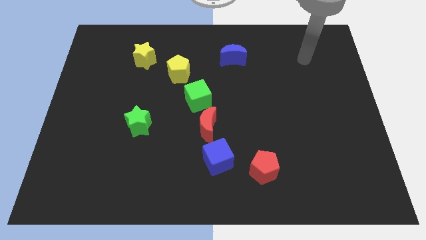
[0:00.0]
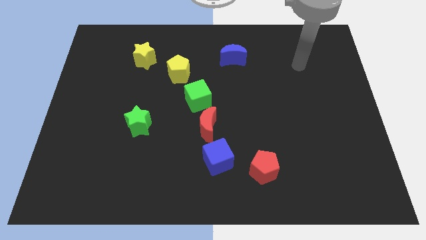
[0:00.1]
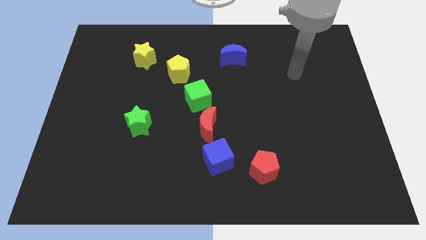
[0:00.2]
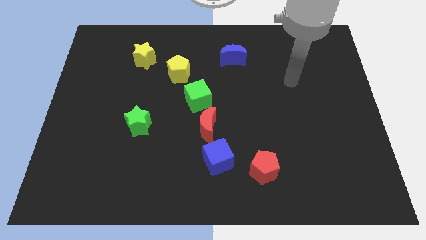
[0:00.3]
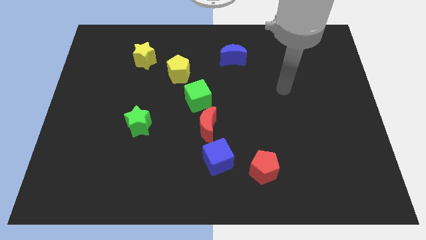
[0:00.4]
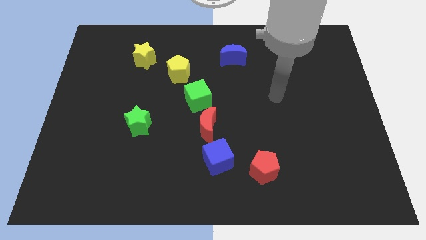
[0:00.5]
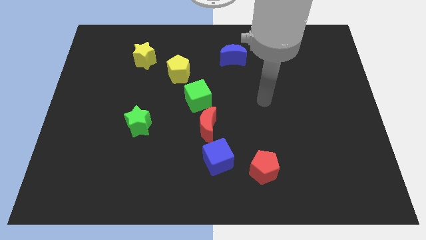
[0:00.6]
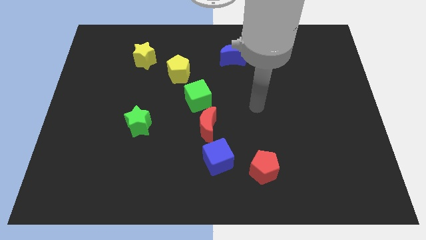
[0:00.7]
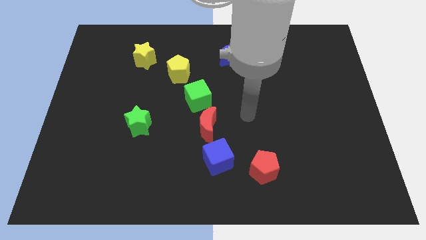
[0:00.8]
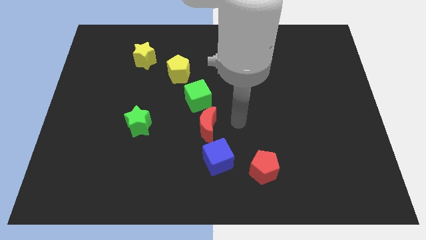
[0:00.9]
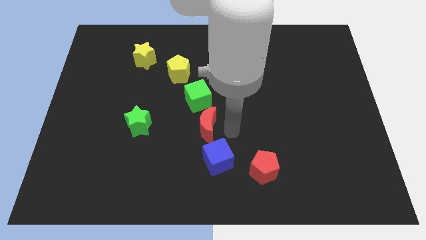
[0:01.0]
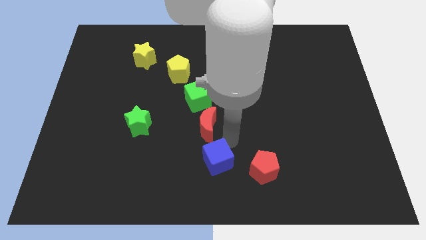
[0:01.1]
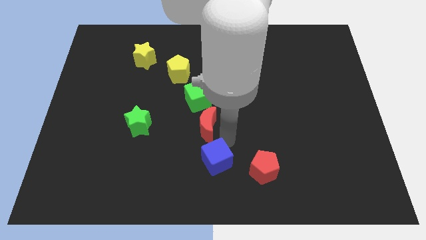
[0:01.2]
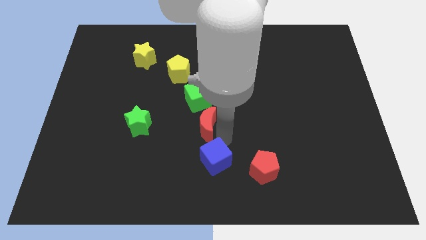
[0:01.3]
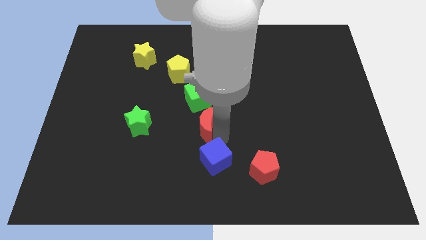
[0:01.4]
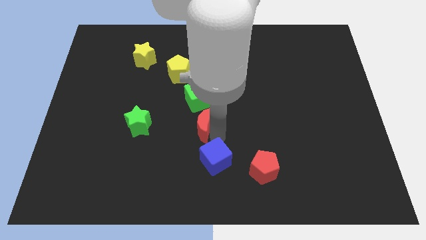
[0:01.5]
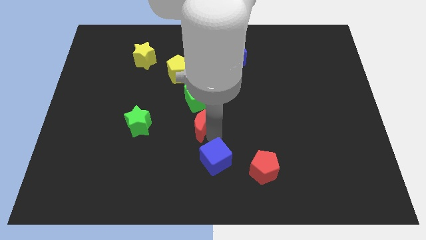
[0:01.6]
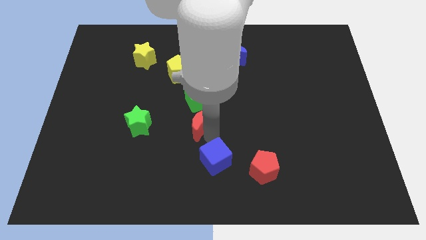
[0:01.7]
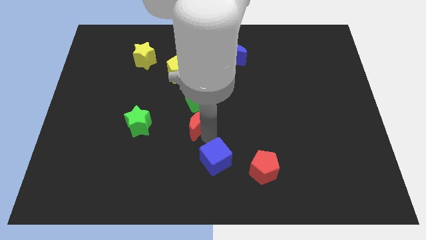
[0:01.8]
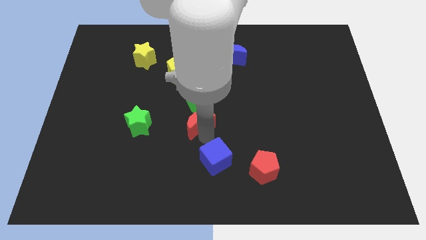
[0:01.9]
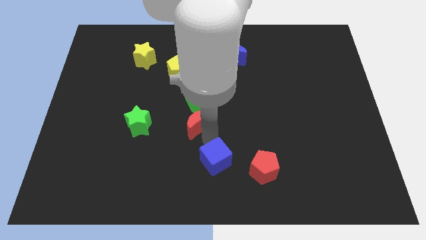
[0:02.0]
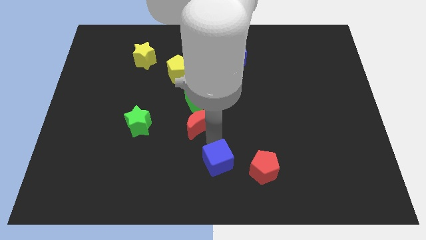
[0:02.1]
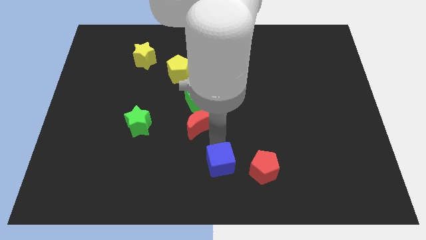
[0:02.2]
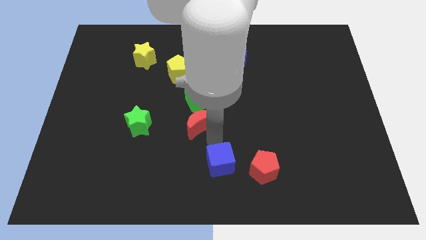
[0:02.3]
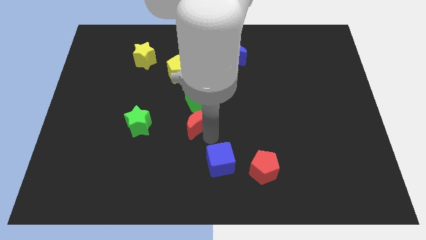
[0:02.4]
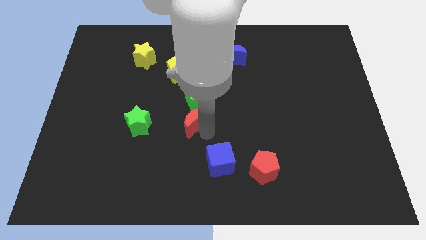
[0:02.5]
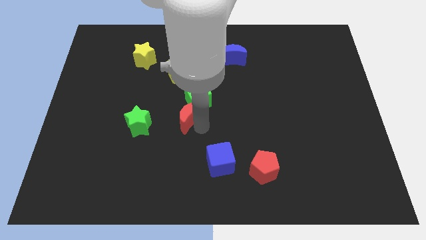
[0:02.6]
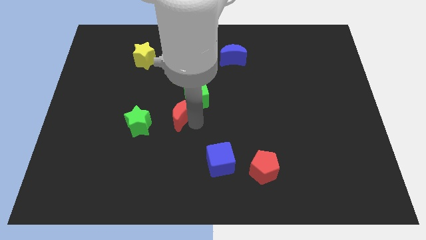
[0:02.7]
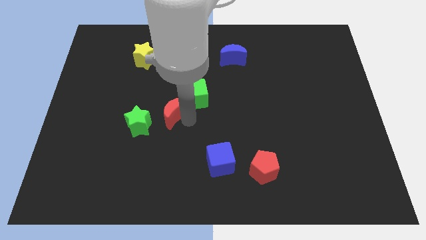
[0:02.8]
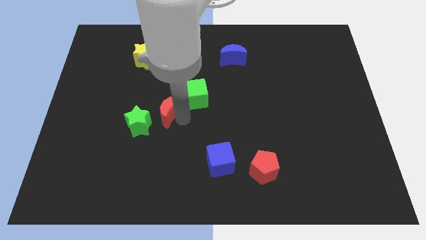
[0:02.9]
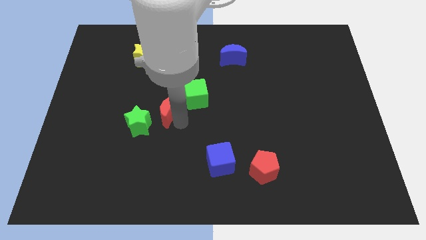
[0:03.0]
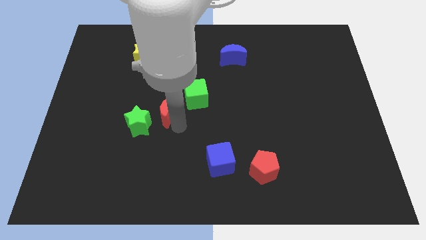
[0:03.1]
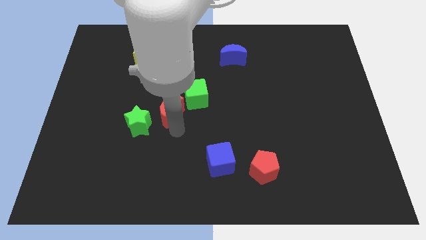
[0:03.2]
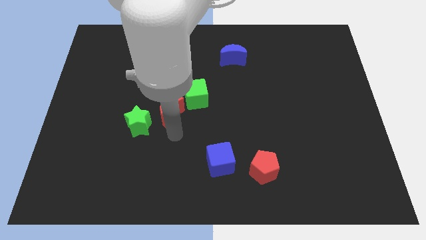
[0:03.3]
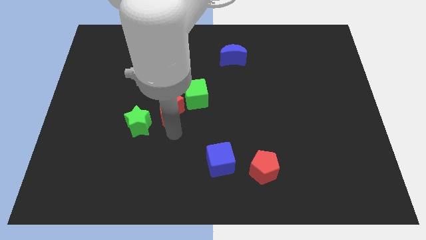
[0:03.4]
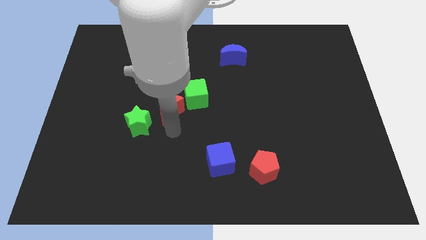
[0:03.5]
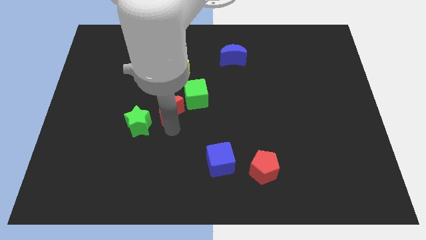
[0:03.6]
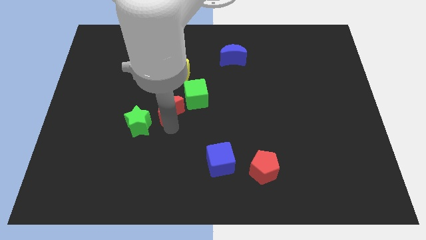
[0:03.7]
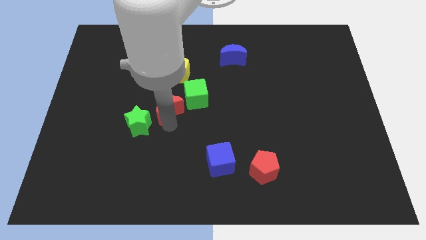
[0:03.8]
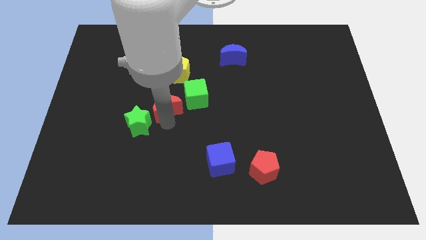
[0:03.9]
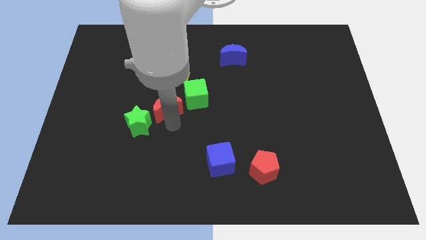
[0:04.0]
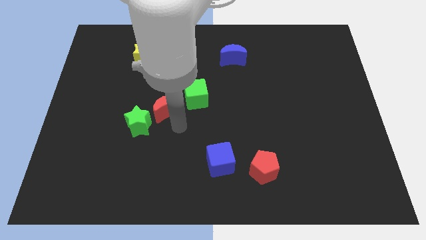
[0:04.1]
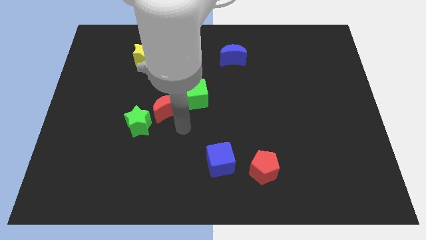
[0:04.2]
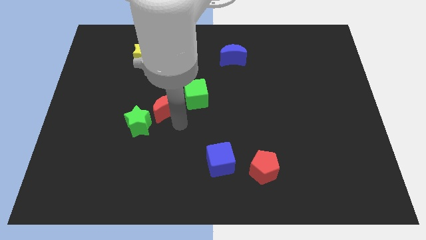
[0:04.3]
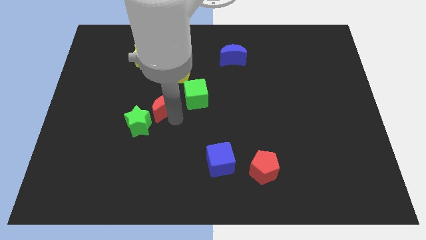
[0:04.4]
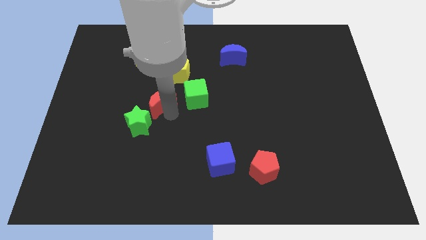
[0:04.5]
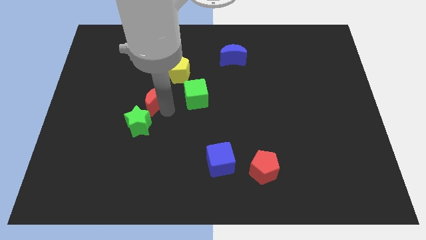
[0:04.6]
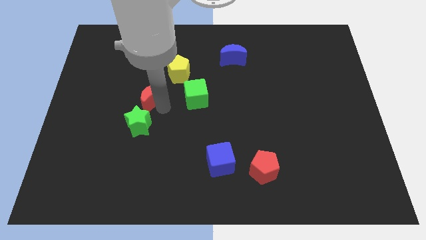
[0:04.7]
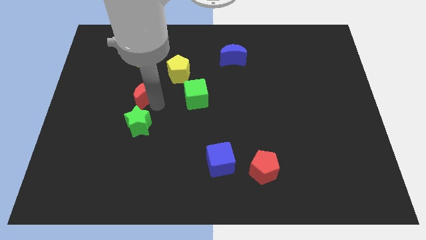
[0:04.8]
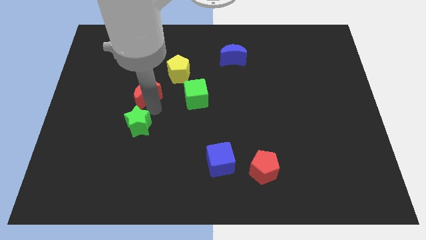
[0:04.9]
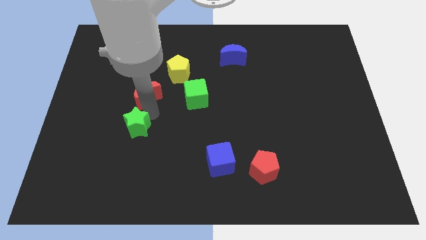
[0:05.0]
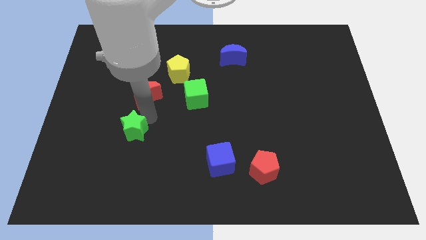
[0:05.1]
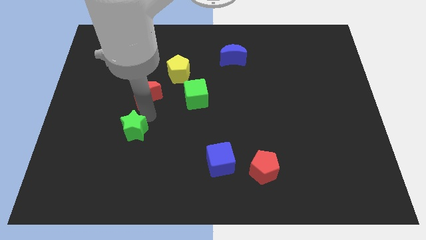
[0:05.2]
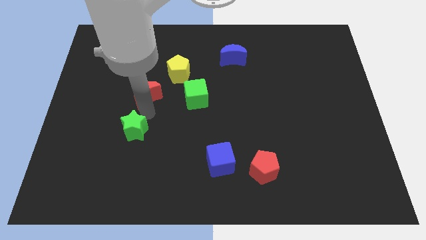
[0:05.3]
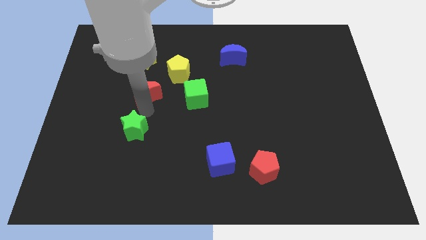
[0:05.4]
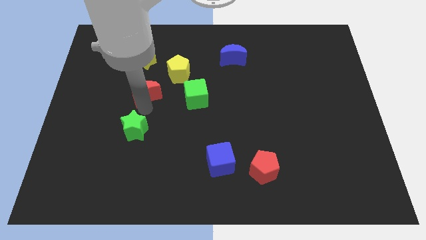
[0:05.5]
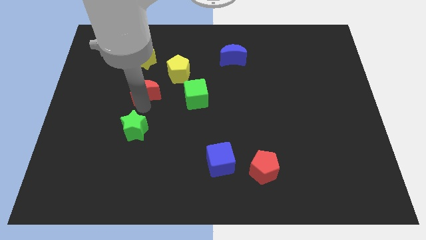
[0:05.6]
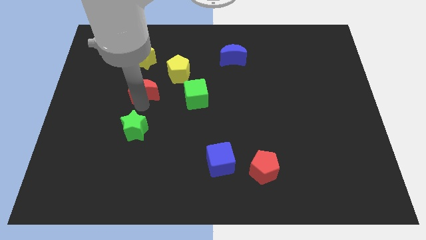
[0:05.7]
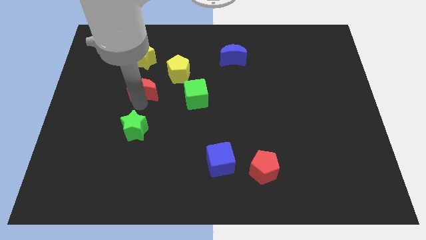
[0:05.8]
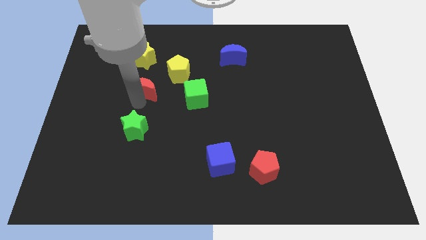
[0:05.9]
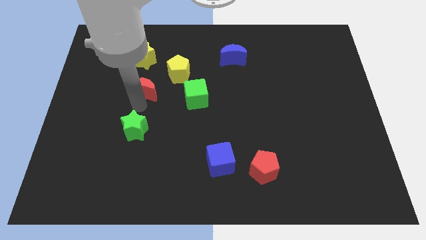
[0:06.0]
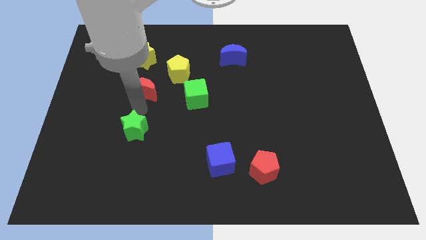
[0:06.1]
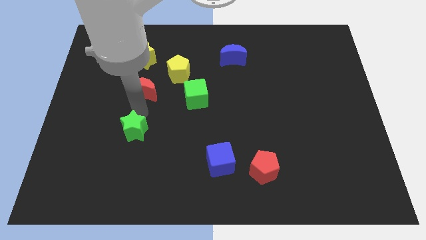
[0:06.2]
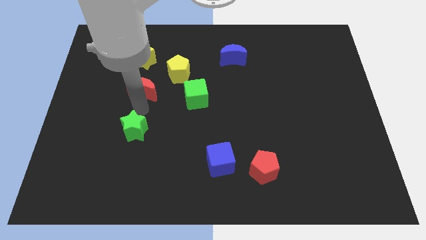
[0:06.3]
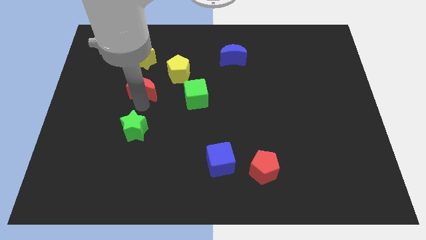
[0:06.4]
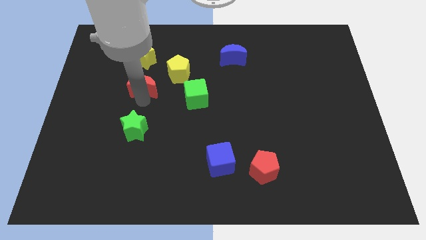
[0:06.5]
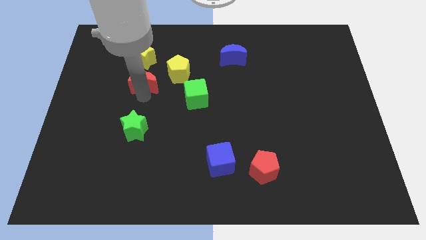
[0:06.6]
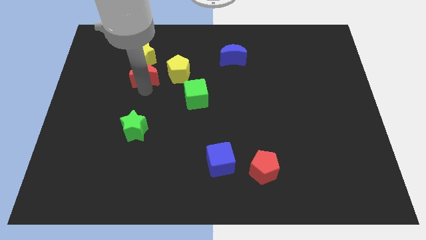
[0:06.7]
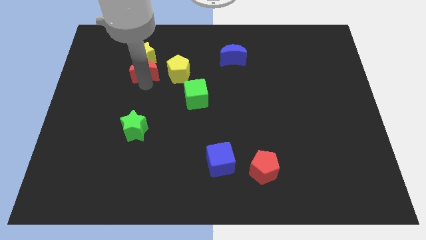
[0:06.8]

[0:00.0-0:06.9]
push the red moon close to the yellow star
